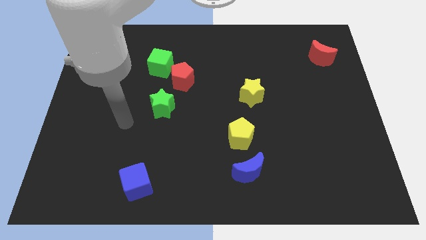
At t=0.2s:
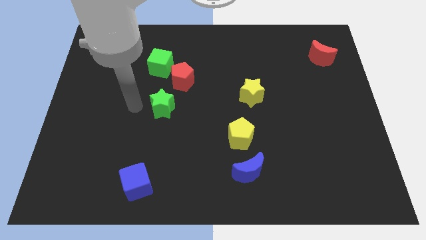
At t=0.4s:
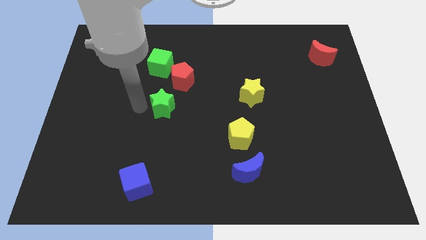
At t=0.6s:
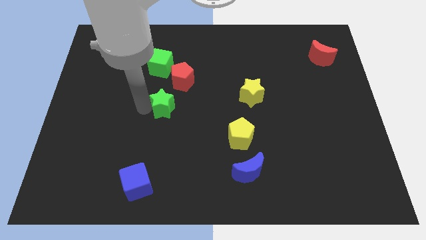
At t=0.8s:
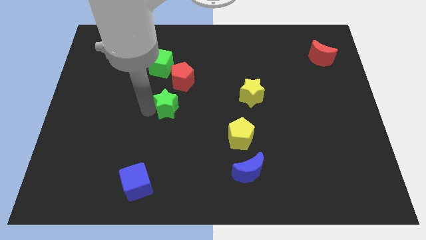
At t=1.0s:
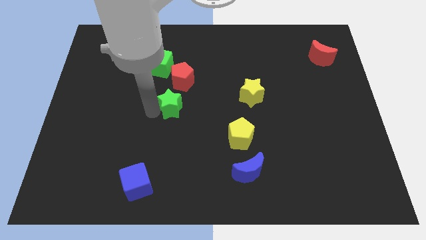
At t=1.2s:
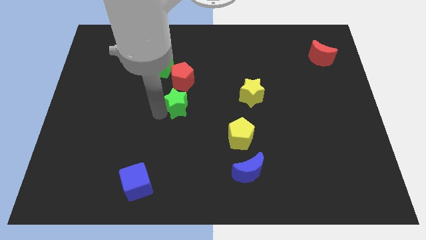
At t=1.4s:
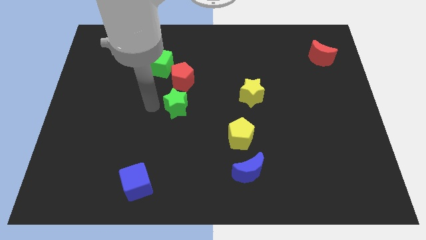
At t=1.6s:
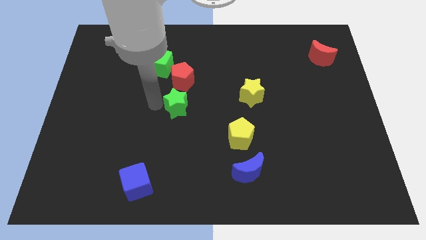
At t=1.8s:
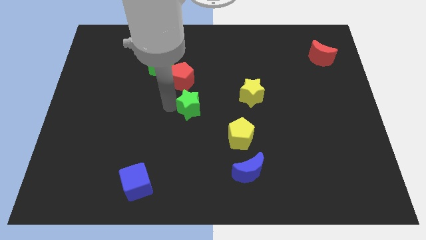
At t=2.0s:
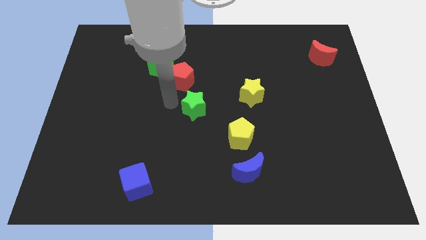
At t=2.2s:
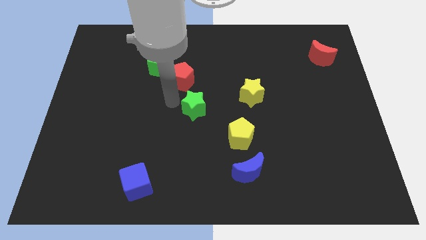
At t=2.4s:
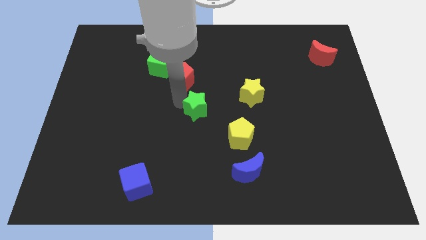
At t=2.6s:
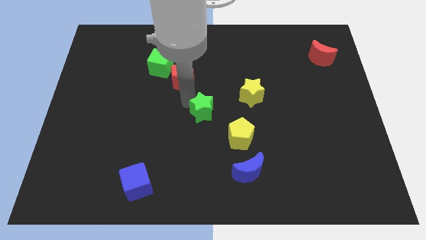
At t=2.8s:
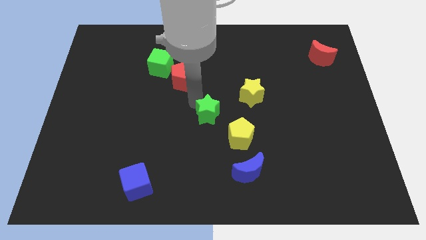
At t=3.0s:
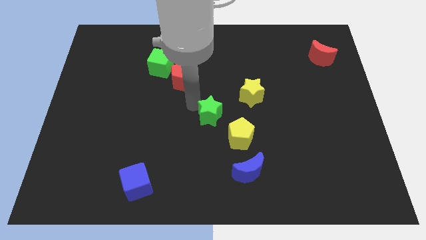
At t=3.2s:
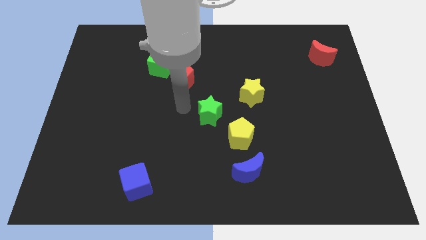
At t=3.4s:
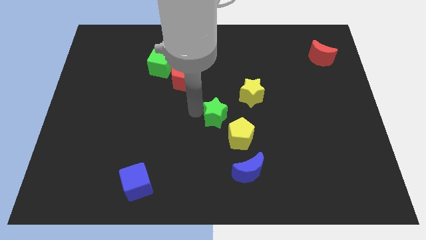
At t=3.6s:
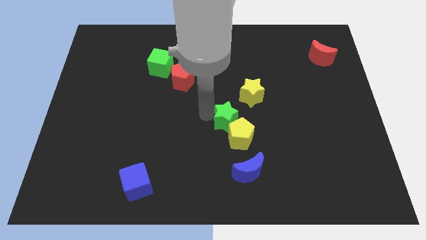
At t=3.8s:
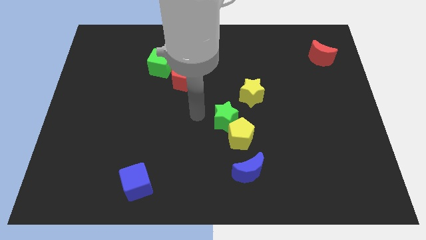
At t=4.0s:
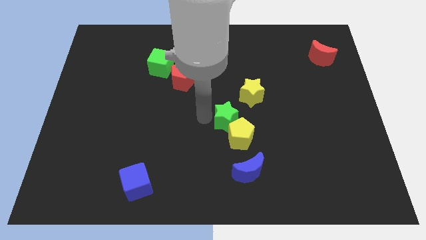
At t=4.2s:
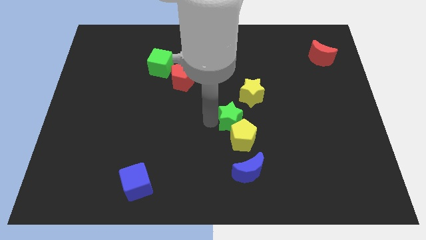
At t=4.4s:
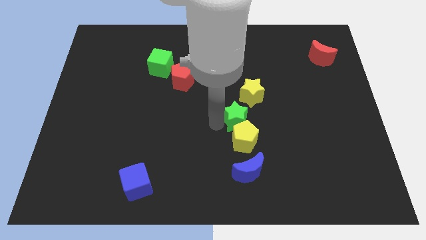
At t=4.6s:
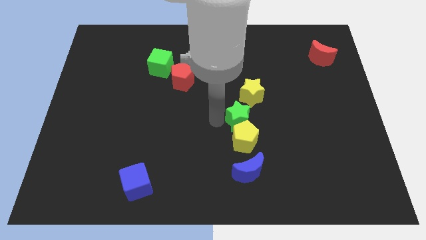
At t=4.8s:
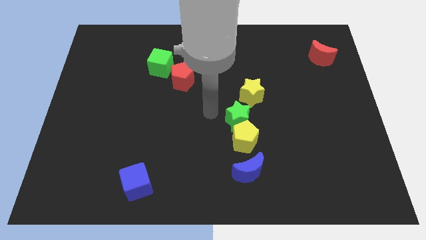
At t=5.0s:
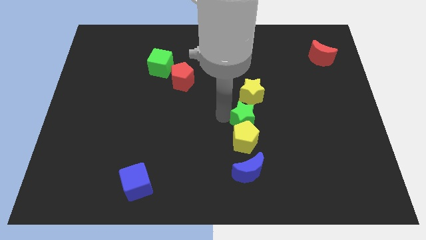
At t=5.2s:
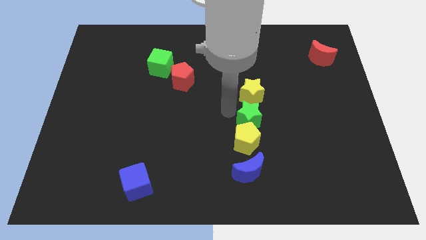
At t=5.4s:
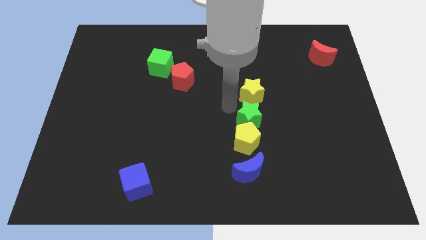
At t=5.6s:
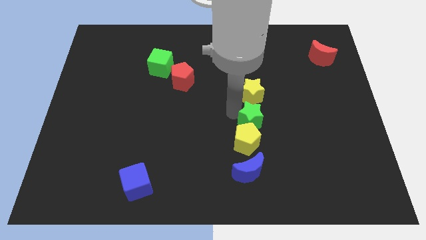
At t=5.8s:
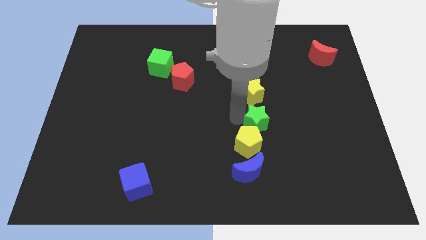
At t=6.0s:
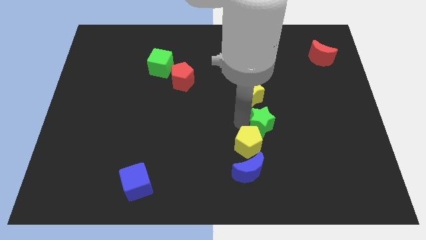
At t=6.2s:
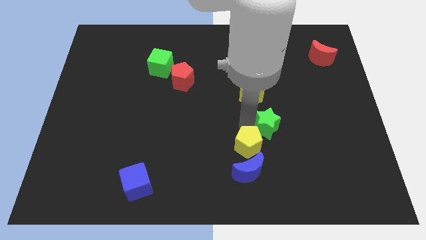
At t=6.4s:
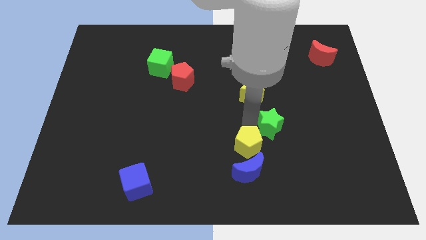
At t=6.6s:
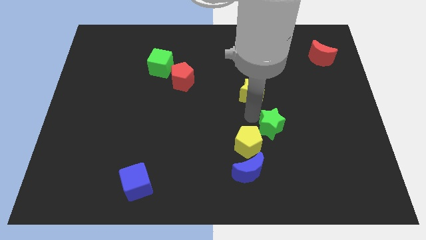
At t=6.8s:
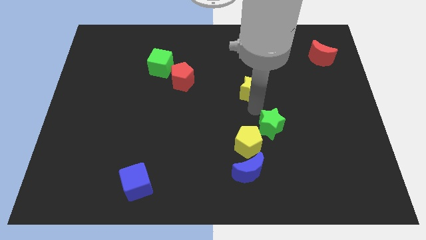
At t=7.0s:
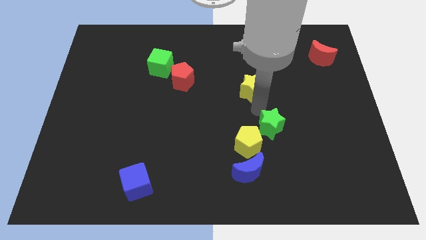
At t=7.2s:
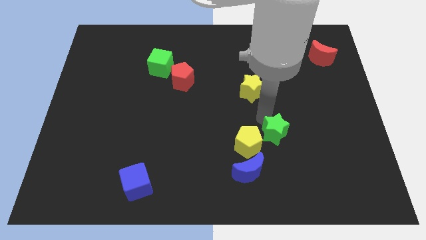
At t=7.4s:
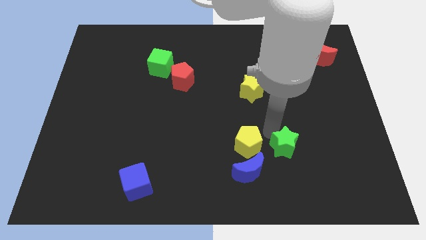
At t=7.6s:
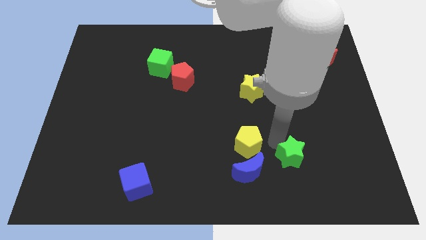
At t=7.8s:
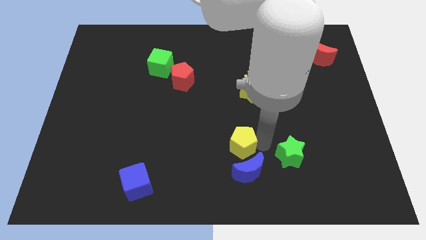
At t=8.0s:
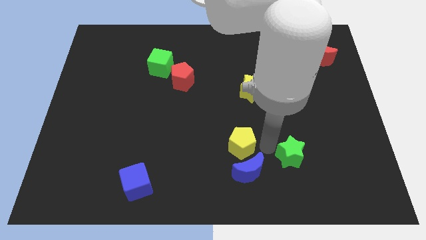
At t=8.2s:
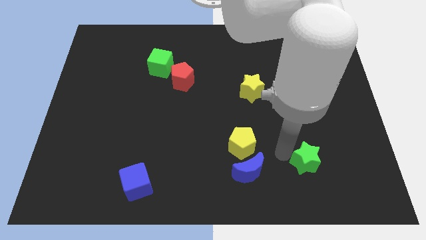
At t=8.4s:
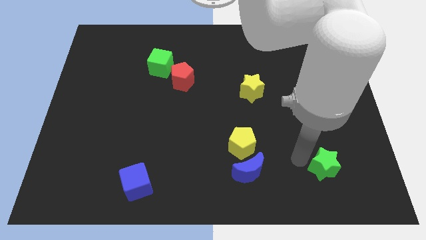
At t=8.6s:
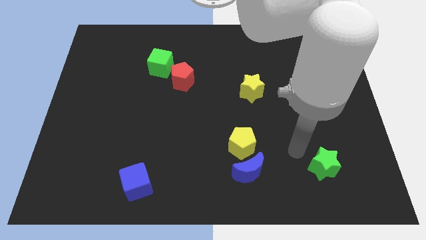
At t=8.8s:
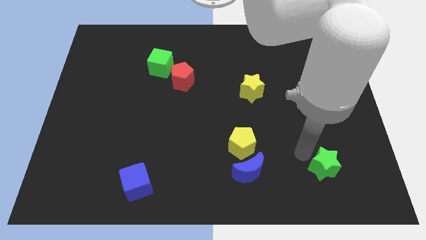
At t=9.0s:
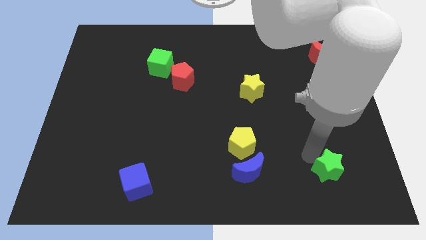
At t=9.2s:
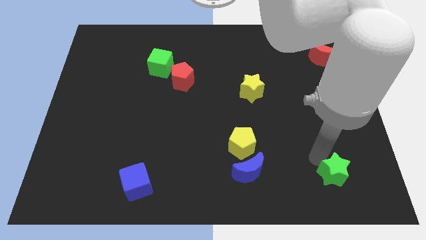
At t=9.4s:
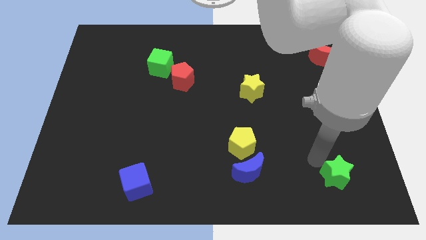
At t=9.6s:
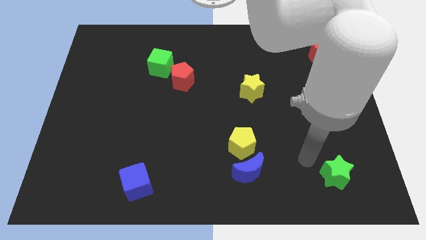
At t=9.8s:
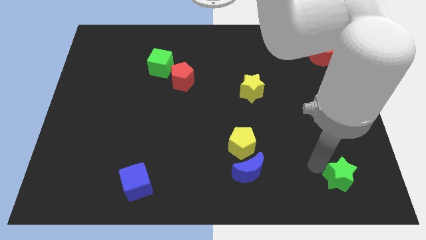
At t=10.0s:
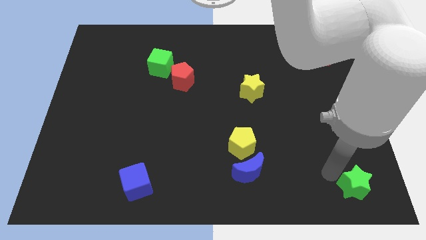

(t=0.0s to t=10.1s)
push the green star to the bottom right corner

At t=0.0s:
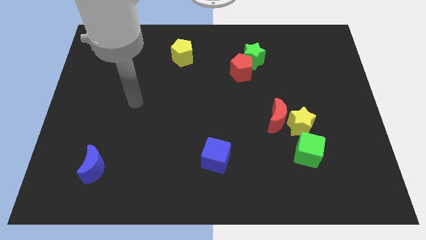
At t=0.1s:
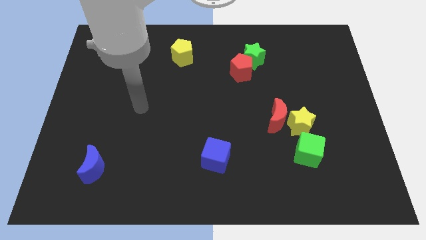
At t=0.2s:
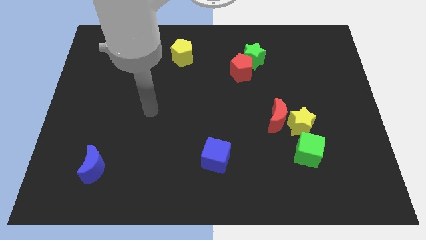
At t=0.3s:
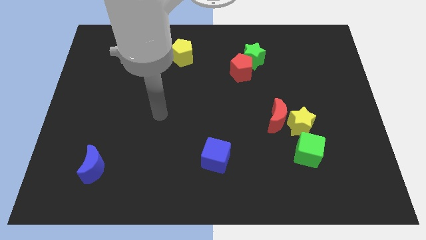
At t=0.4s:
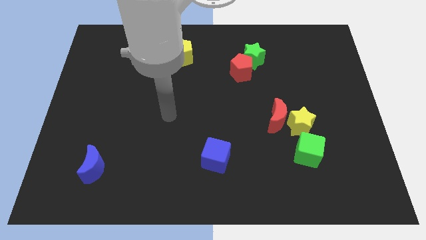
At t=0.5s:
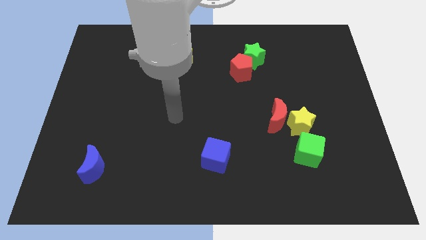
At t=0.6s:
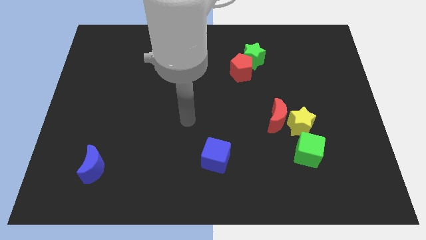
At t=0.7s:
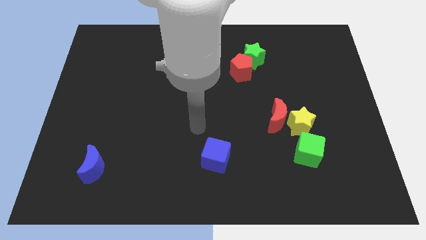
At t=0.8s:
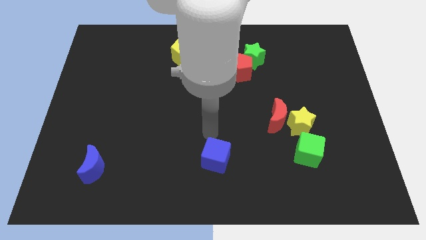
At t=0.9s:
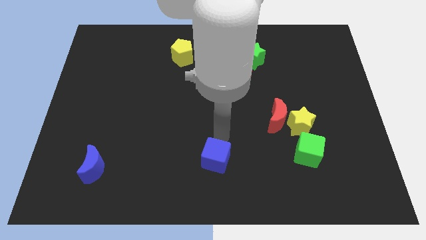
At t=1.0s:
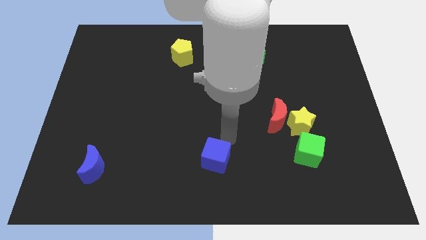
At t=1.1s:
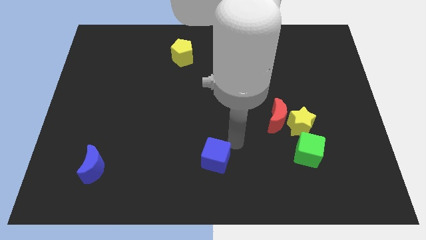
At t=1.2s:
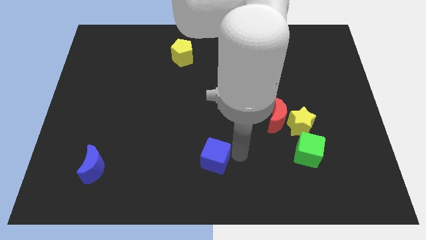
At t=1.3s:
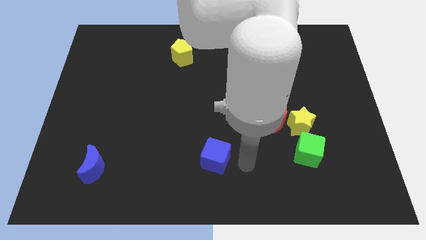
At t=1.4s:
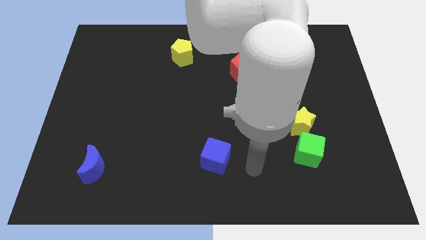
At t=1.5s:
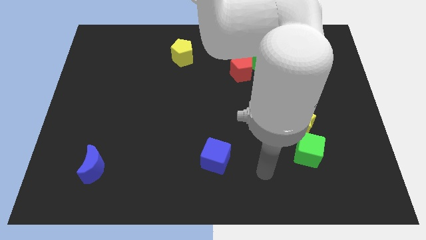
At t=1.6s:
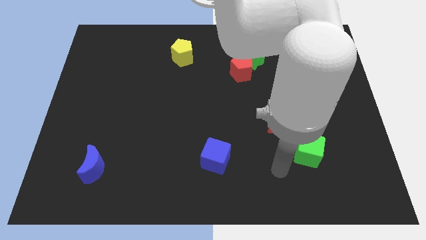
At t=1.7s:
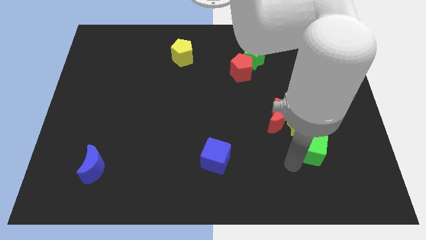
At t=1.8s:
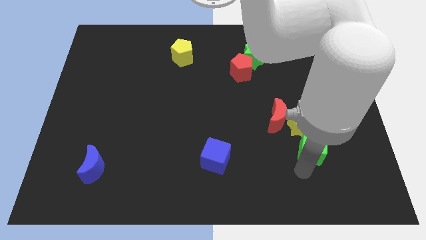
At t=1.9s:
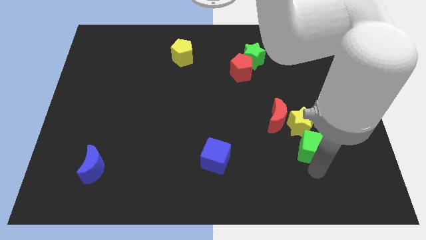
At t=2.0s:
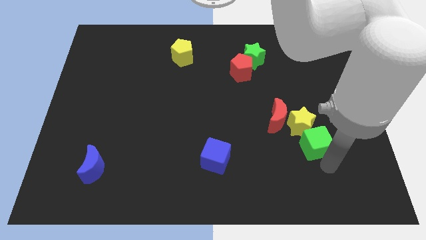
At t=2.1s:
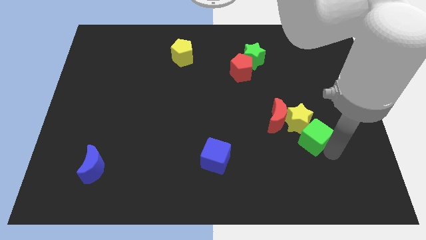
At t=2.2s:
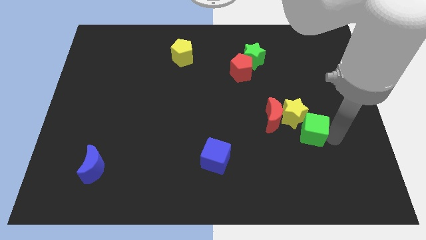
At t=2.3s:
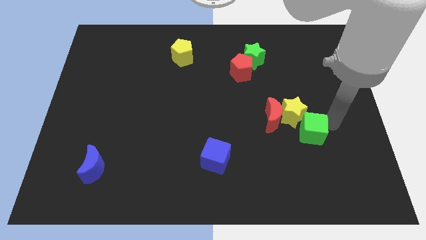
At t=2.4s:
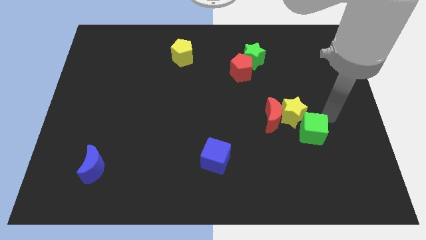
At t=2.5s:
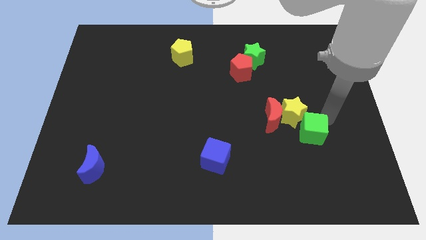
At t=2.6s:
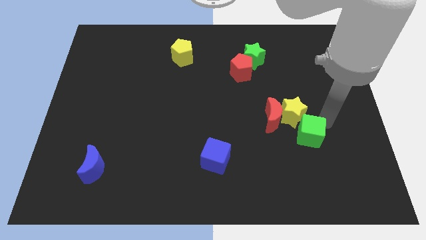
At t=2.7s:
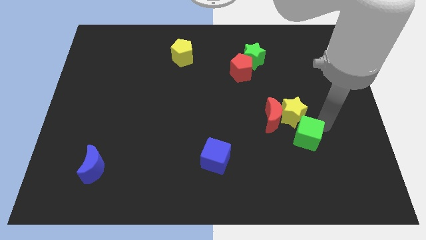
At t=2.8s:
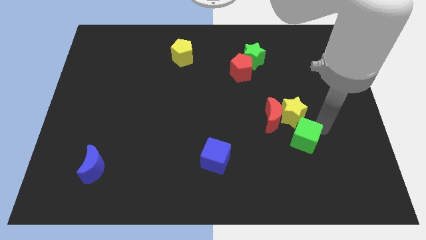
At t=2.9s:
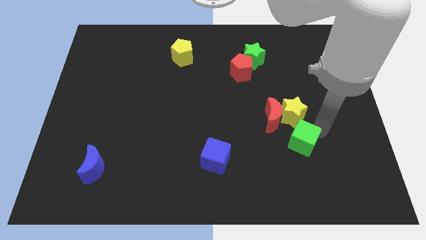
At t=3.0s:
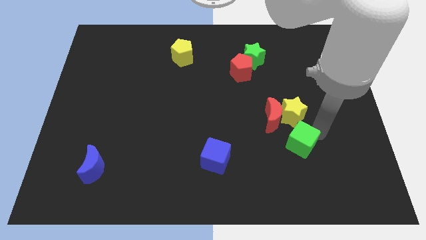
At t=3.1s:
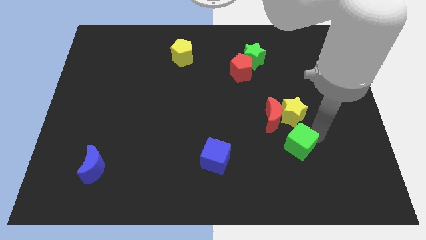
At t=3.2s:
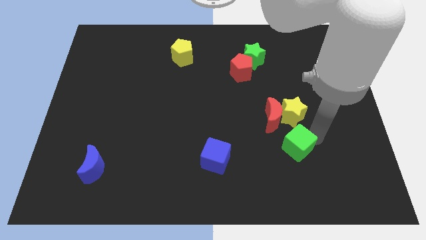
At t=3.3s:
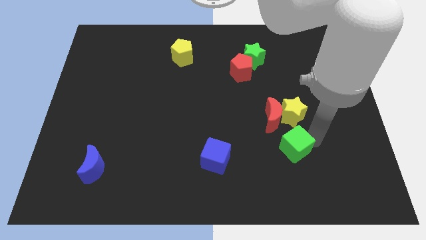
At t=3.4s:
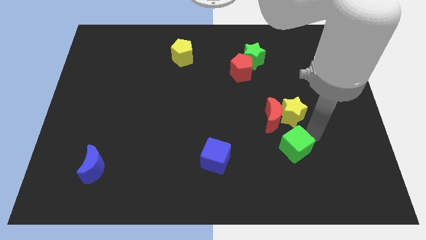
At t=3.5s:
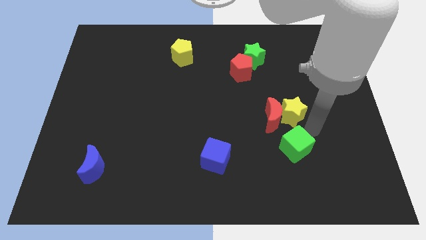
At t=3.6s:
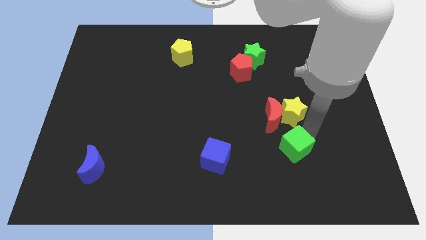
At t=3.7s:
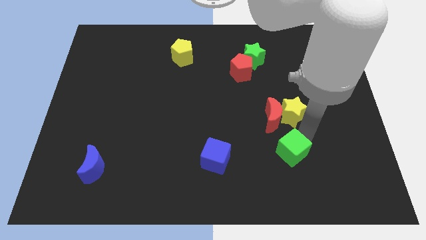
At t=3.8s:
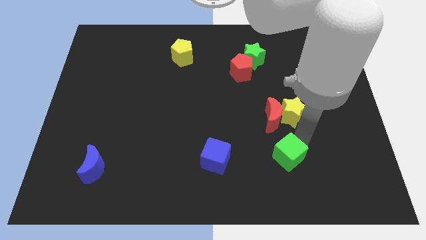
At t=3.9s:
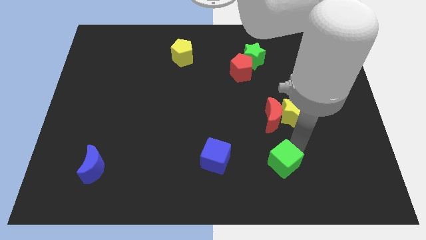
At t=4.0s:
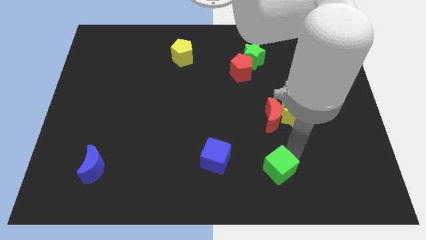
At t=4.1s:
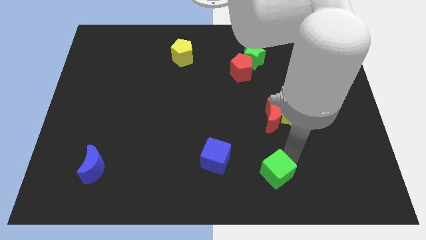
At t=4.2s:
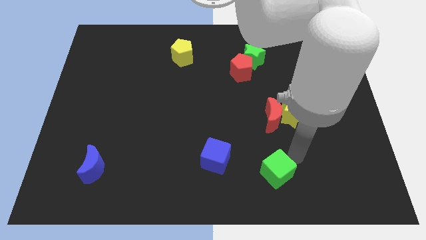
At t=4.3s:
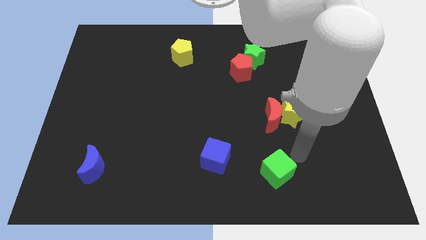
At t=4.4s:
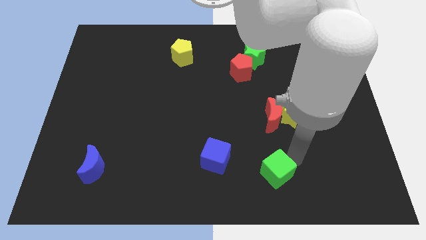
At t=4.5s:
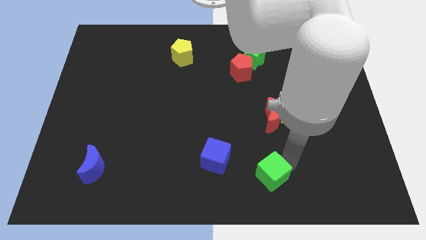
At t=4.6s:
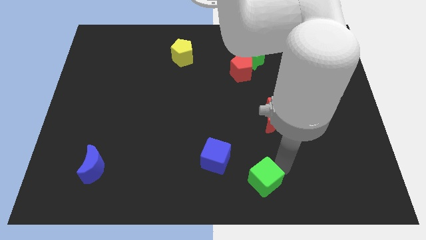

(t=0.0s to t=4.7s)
move the green cube to the bottom
